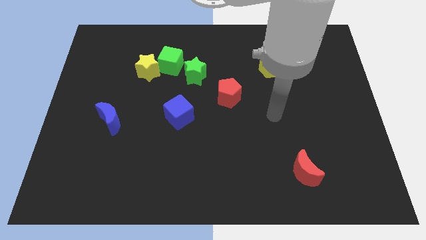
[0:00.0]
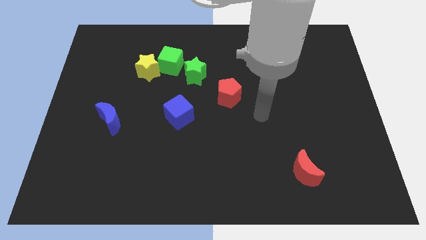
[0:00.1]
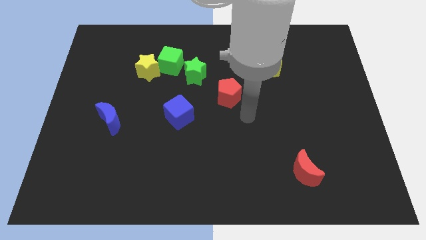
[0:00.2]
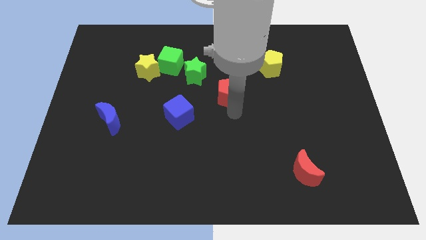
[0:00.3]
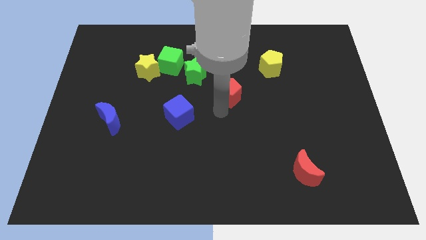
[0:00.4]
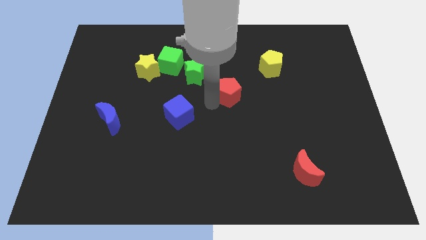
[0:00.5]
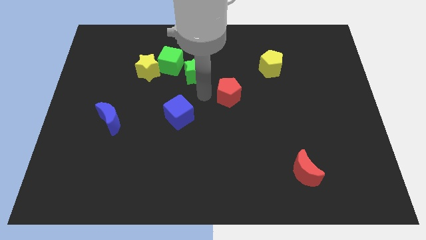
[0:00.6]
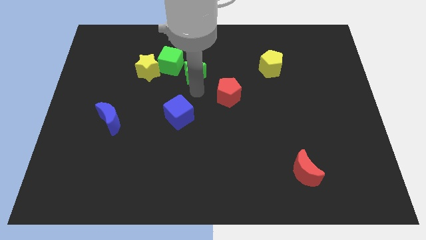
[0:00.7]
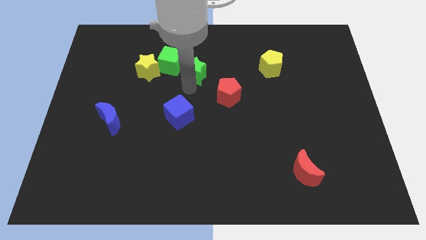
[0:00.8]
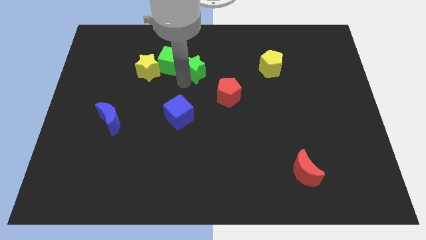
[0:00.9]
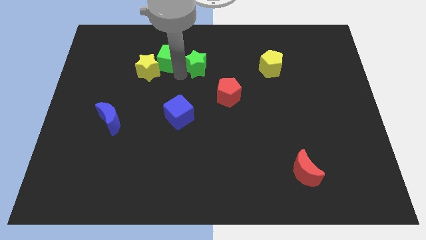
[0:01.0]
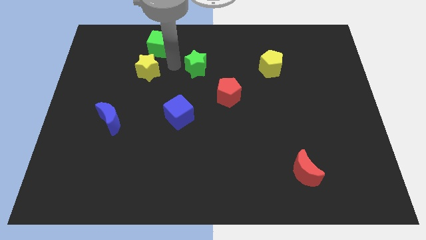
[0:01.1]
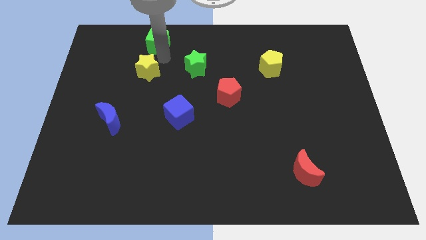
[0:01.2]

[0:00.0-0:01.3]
pull the yellow star apart from the green cube

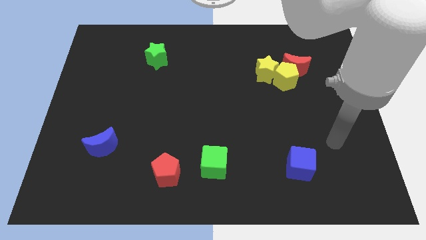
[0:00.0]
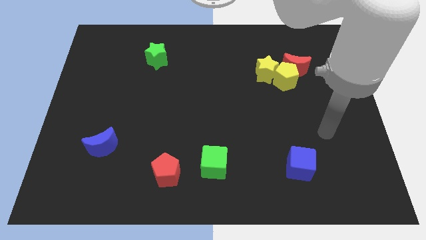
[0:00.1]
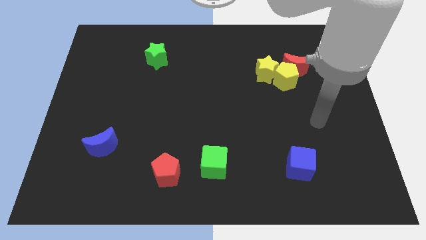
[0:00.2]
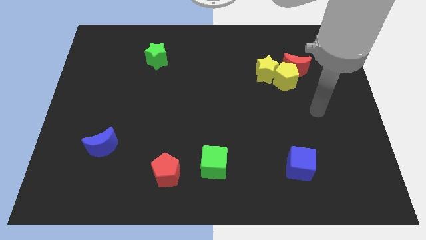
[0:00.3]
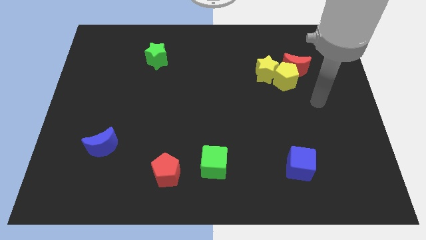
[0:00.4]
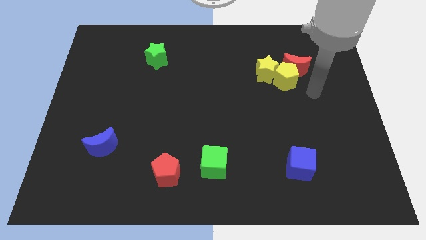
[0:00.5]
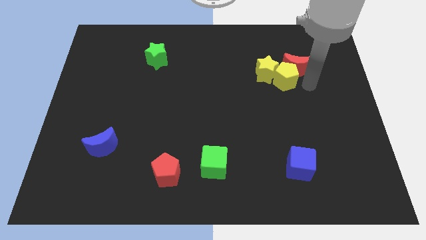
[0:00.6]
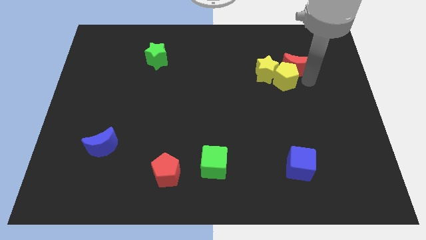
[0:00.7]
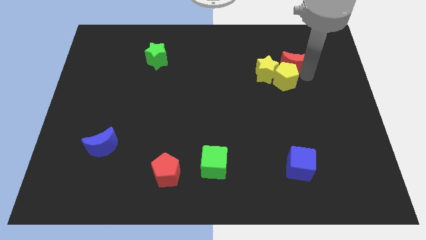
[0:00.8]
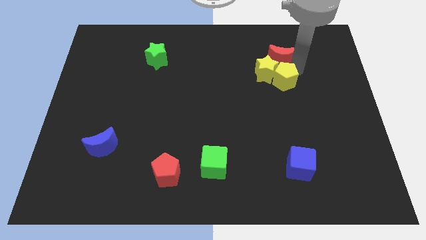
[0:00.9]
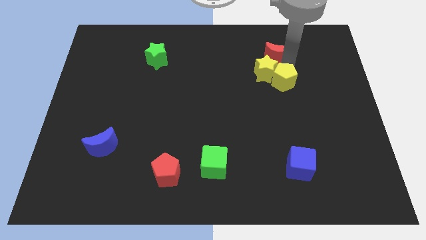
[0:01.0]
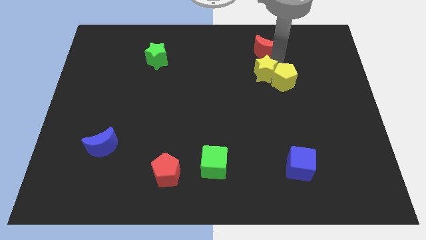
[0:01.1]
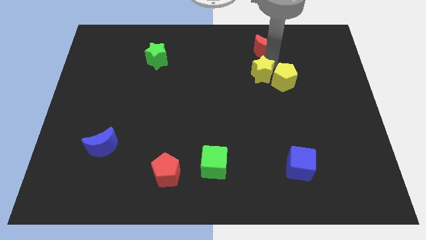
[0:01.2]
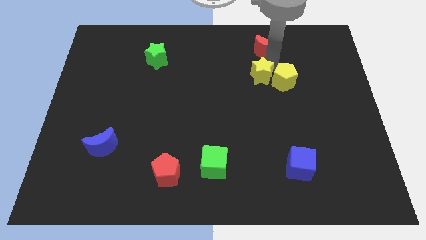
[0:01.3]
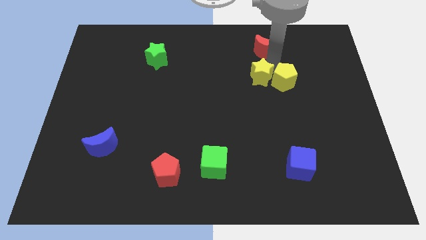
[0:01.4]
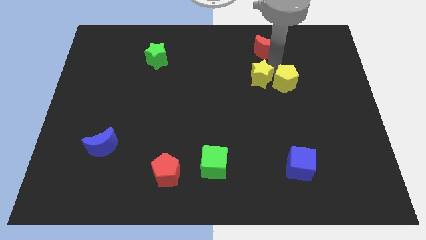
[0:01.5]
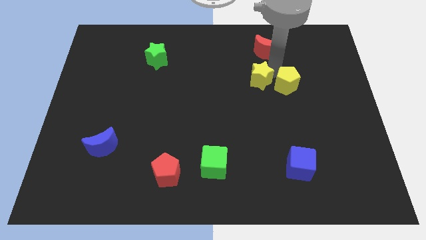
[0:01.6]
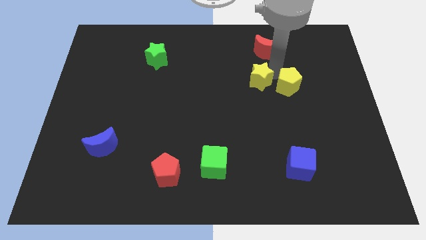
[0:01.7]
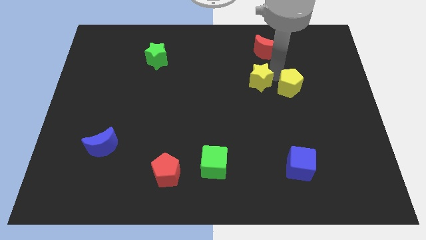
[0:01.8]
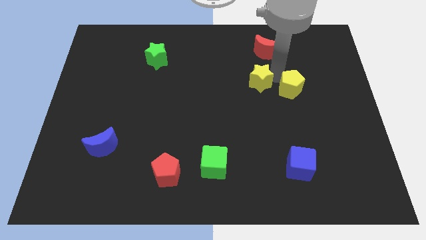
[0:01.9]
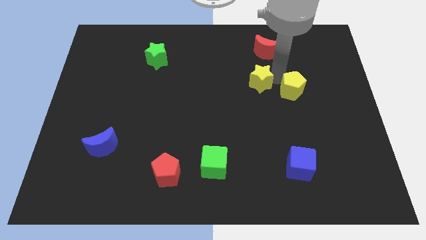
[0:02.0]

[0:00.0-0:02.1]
separate the yellow pentagon from the red moon and yellow star

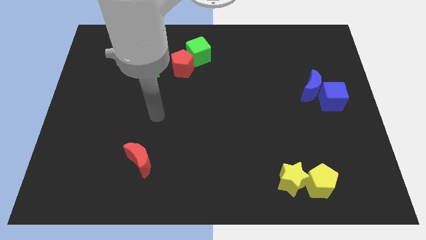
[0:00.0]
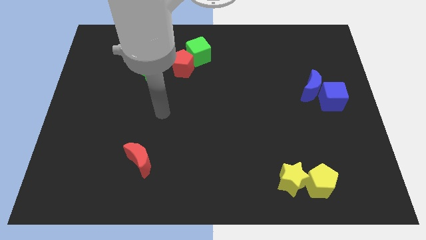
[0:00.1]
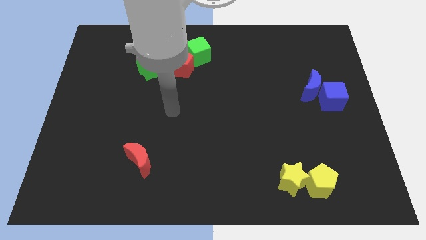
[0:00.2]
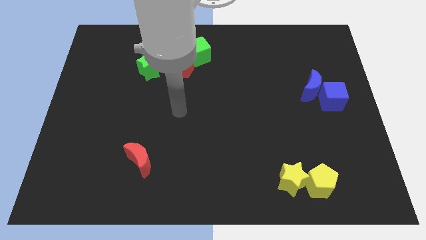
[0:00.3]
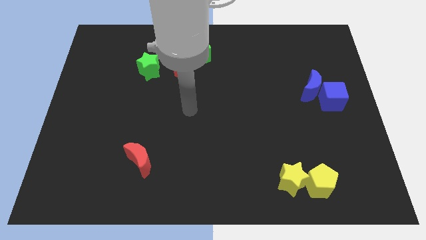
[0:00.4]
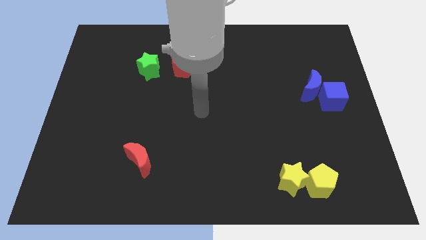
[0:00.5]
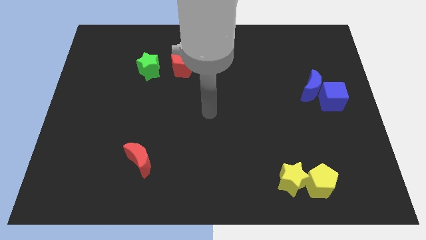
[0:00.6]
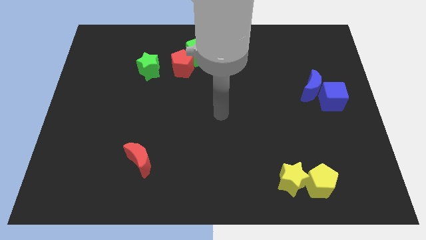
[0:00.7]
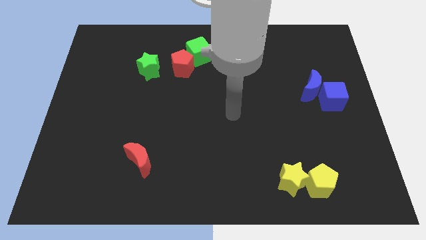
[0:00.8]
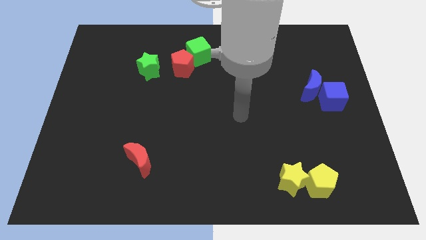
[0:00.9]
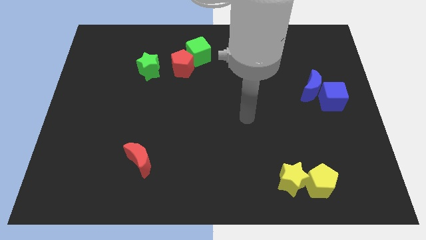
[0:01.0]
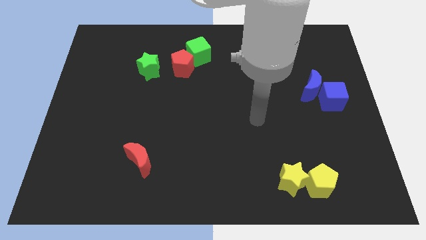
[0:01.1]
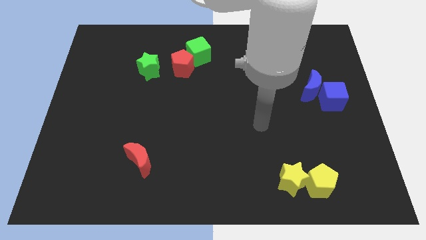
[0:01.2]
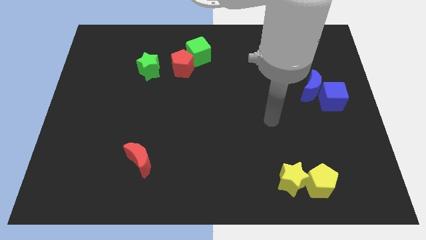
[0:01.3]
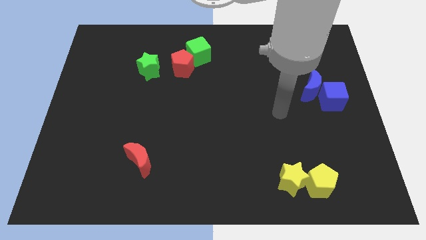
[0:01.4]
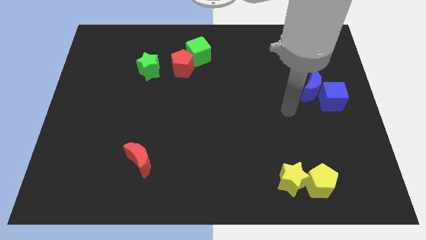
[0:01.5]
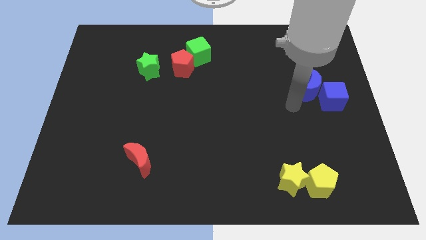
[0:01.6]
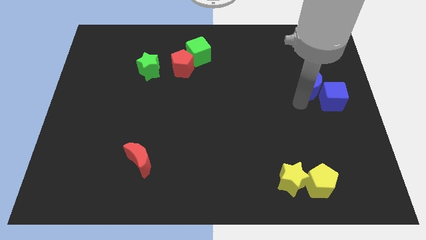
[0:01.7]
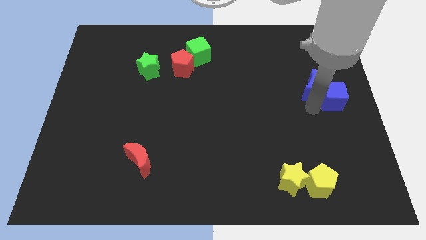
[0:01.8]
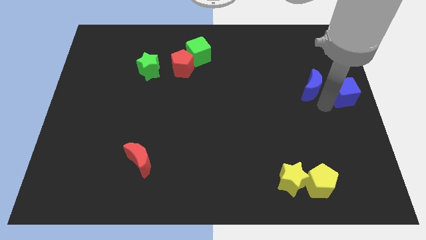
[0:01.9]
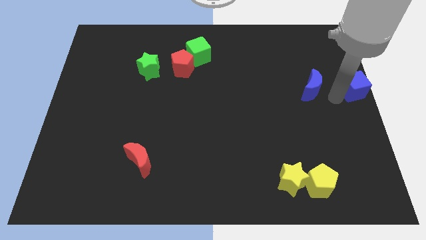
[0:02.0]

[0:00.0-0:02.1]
move the blue moon away from the blue cube

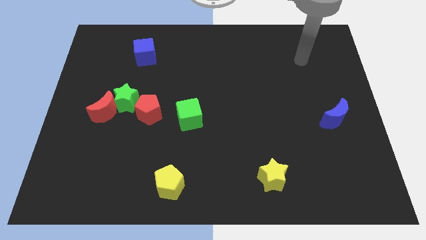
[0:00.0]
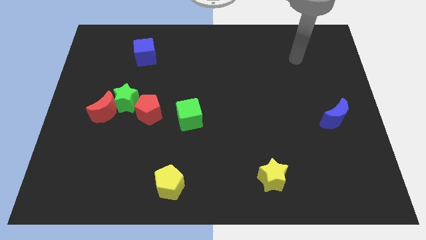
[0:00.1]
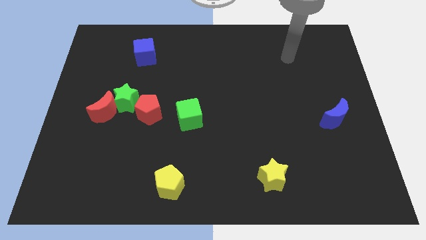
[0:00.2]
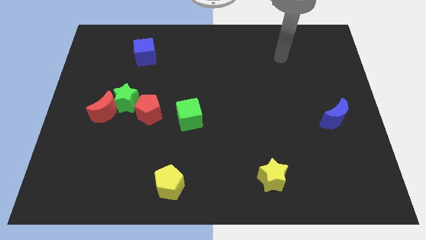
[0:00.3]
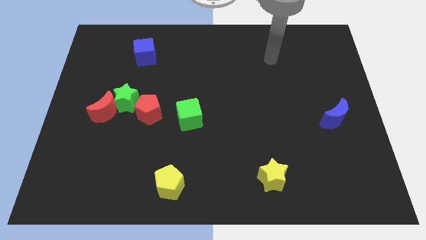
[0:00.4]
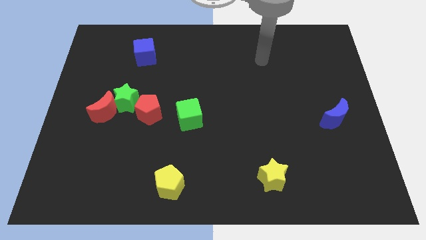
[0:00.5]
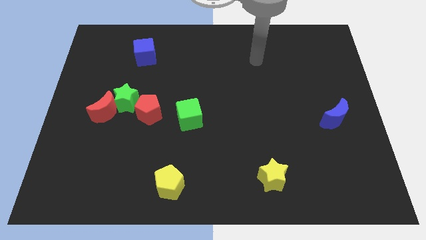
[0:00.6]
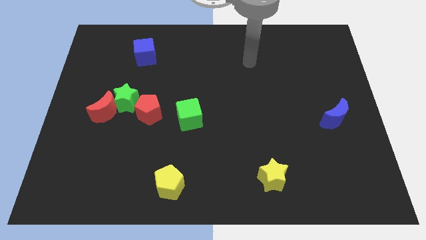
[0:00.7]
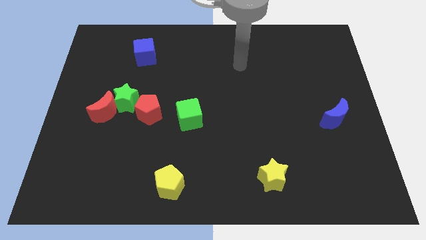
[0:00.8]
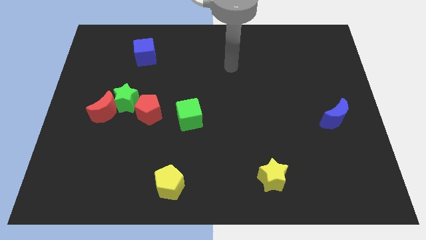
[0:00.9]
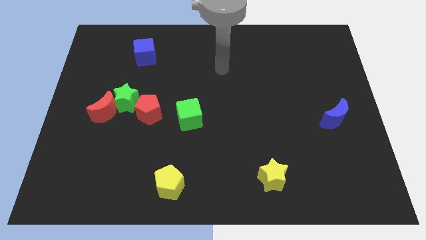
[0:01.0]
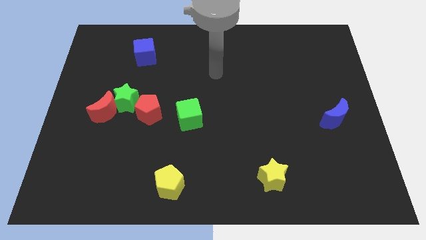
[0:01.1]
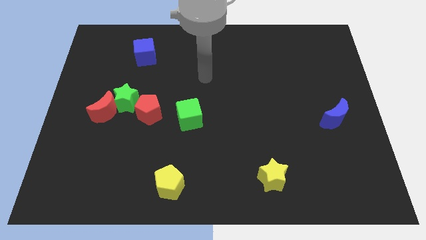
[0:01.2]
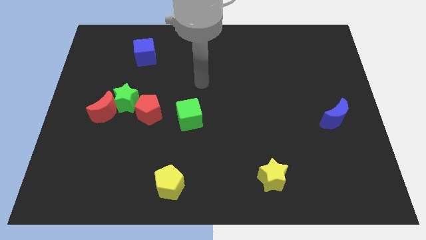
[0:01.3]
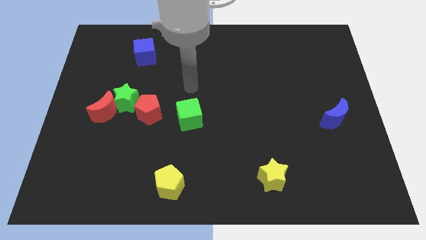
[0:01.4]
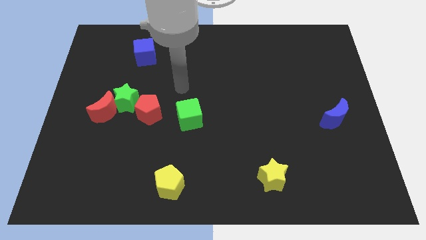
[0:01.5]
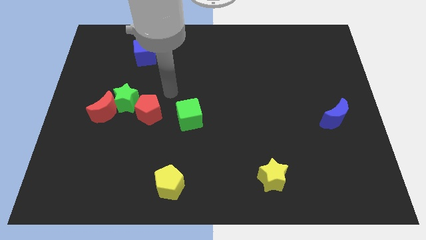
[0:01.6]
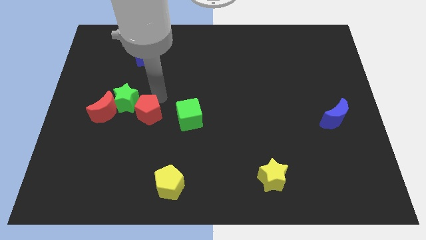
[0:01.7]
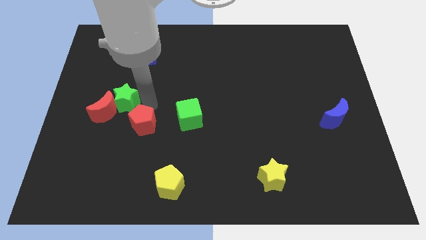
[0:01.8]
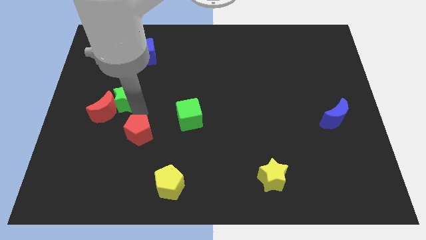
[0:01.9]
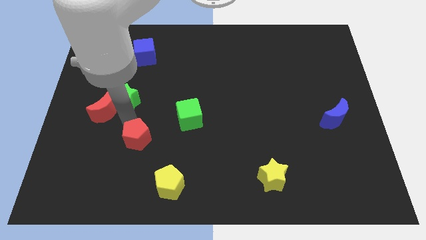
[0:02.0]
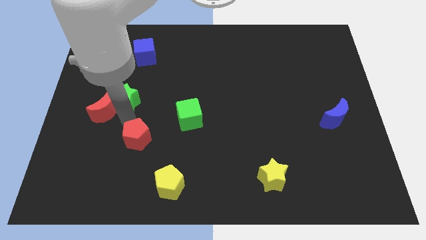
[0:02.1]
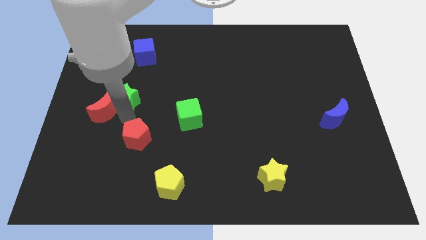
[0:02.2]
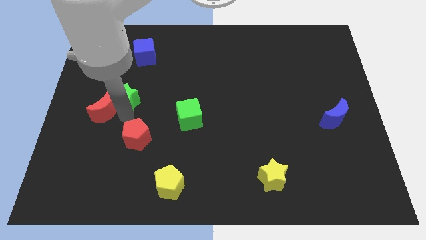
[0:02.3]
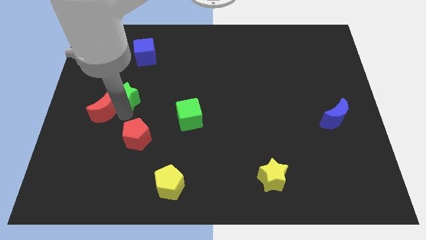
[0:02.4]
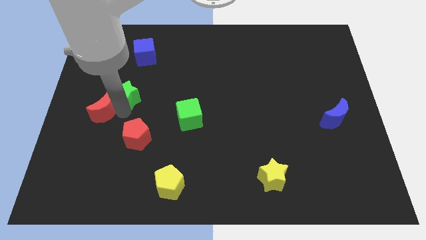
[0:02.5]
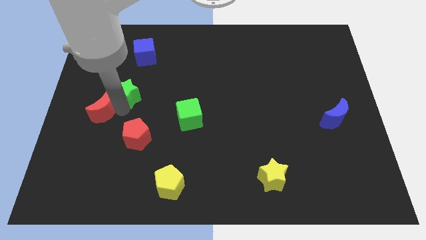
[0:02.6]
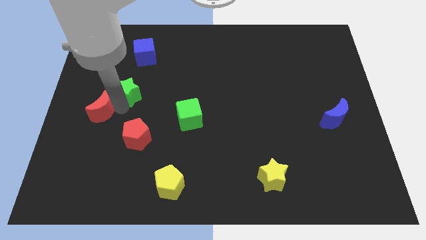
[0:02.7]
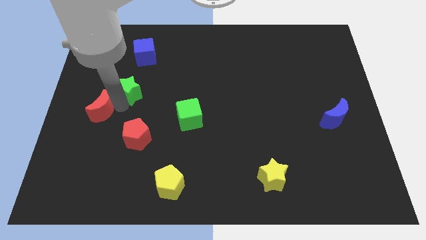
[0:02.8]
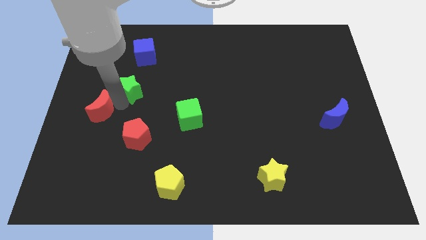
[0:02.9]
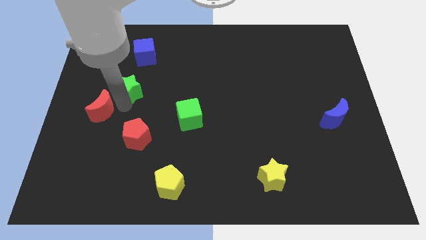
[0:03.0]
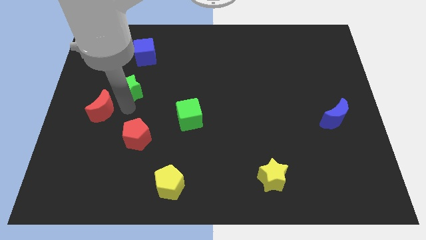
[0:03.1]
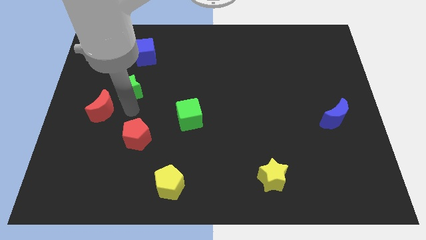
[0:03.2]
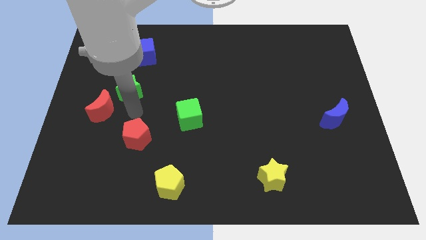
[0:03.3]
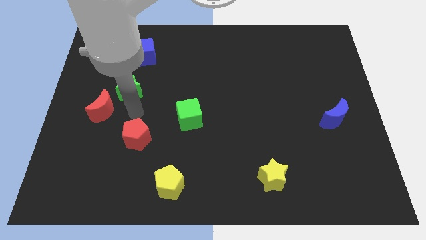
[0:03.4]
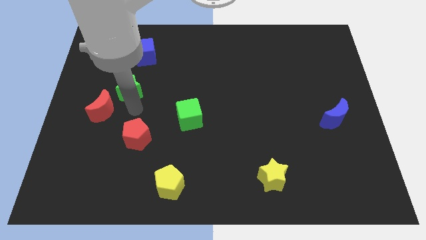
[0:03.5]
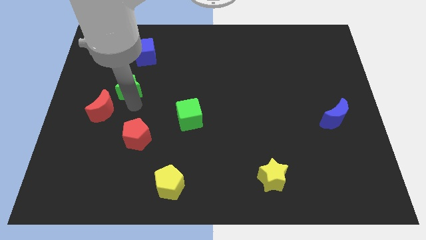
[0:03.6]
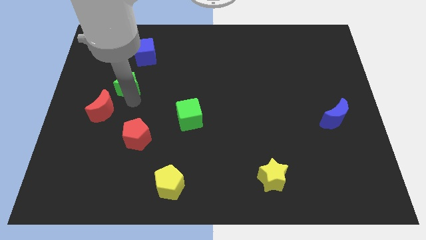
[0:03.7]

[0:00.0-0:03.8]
separate the green star from the red moon and red pentagon
